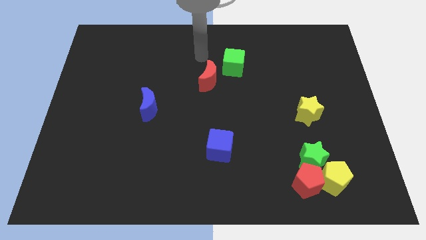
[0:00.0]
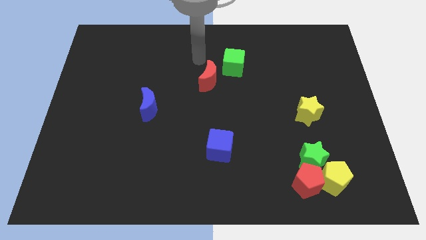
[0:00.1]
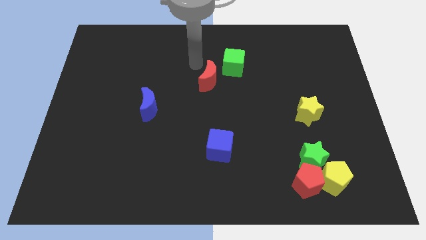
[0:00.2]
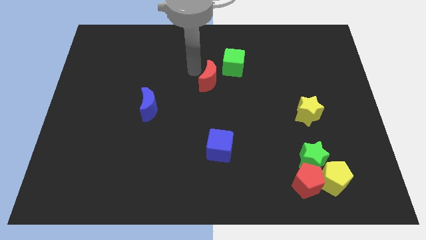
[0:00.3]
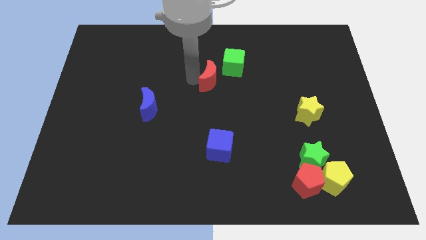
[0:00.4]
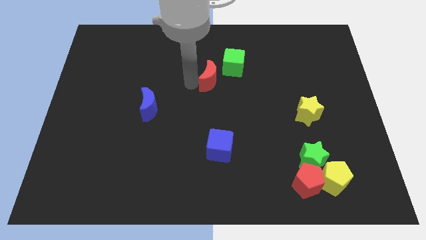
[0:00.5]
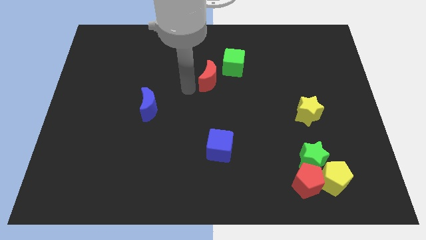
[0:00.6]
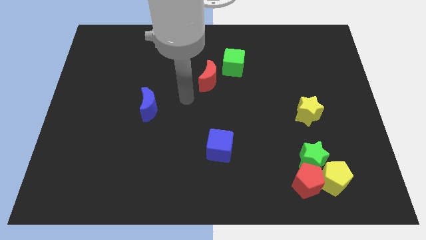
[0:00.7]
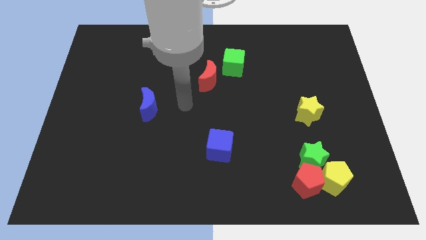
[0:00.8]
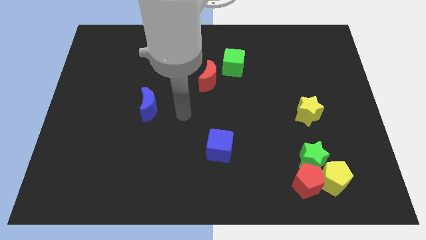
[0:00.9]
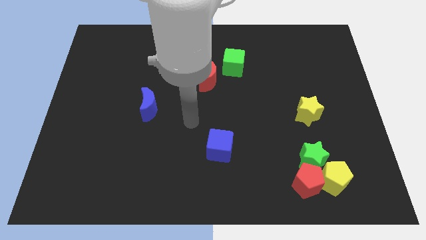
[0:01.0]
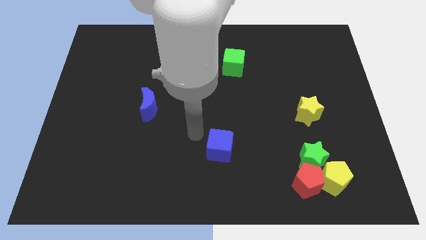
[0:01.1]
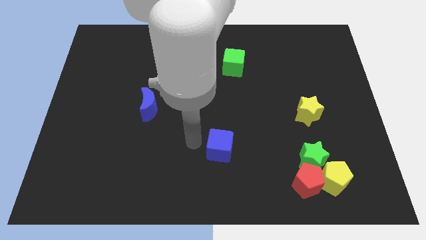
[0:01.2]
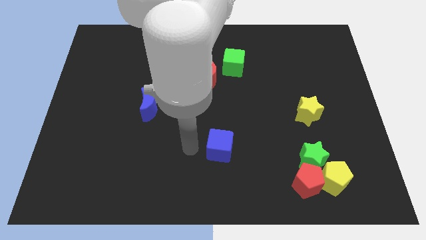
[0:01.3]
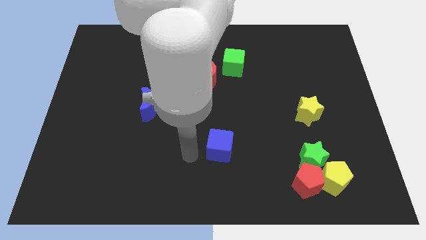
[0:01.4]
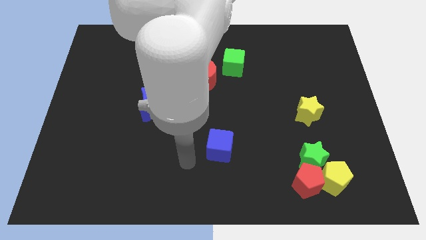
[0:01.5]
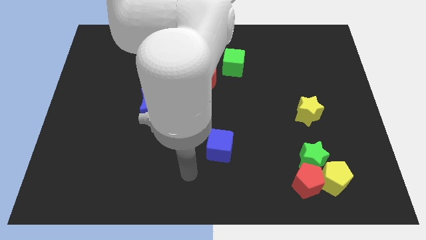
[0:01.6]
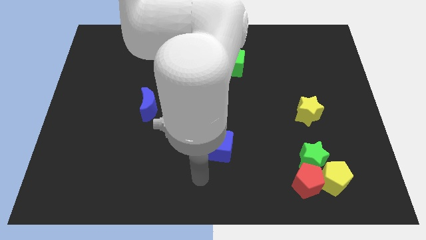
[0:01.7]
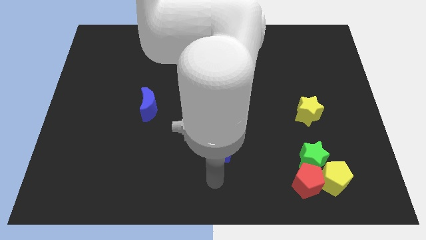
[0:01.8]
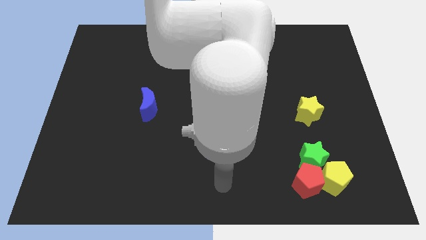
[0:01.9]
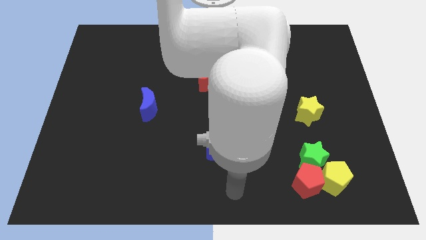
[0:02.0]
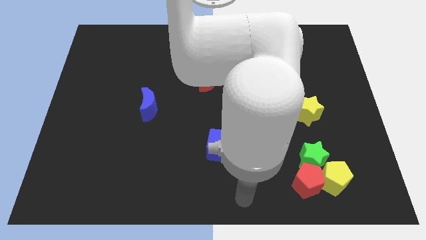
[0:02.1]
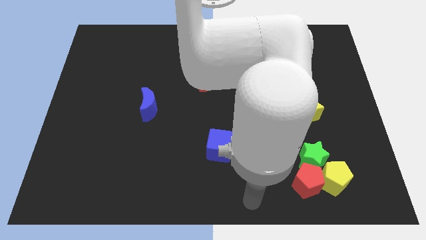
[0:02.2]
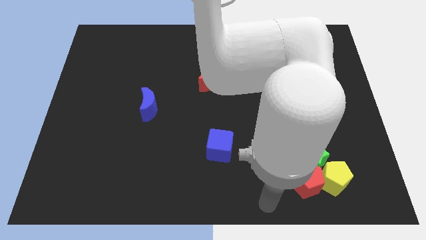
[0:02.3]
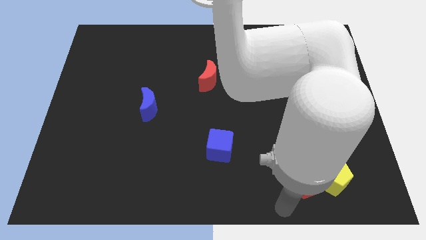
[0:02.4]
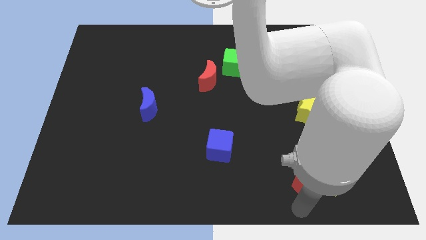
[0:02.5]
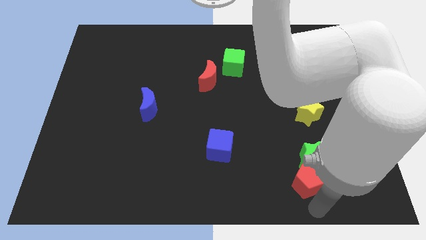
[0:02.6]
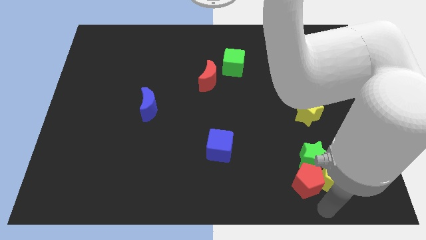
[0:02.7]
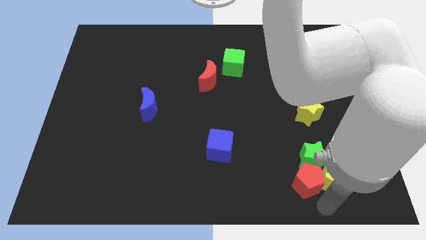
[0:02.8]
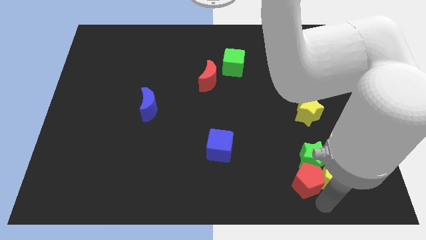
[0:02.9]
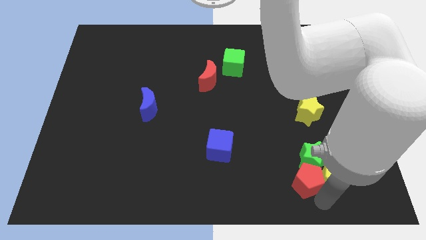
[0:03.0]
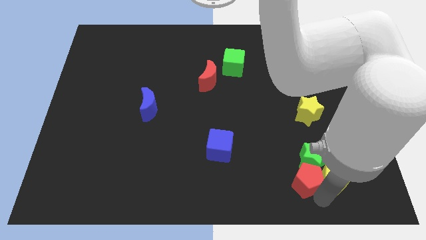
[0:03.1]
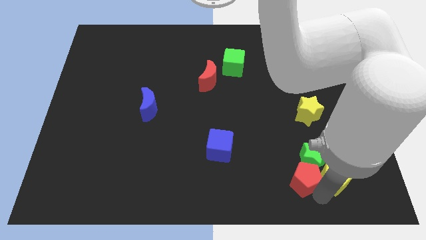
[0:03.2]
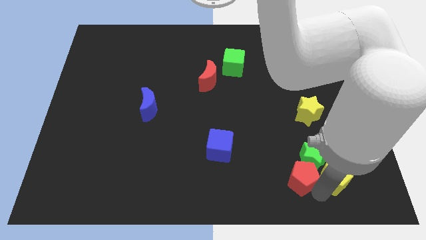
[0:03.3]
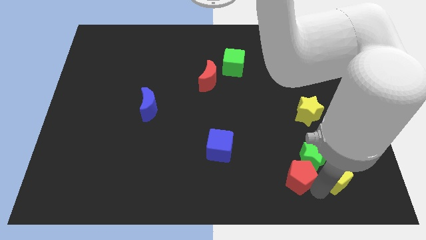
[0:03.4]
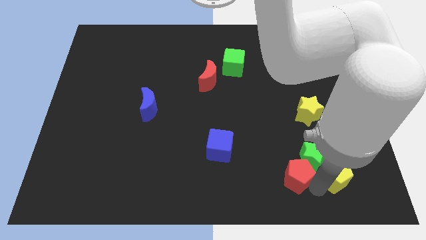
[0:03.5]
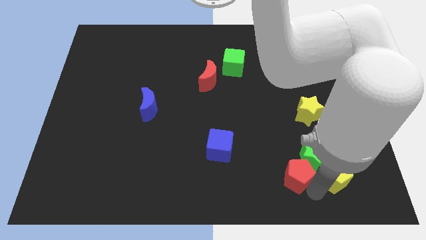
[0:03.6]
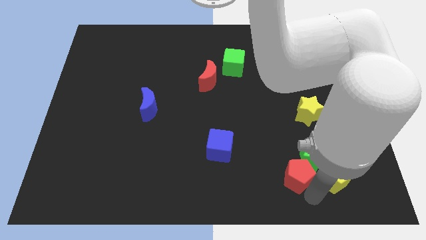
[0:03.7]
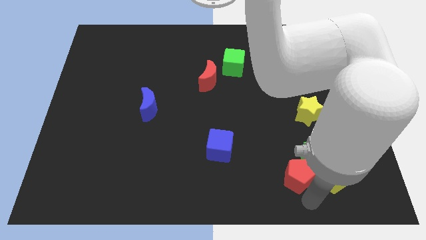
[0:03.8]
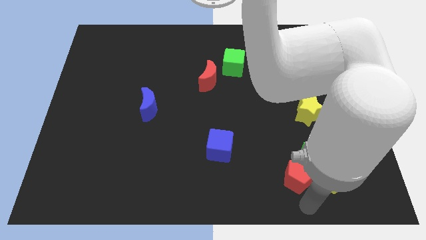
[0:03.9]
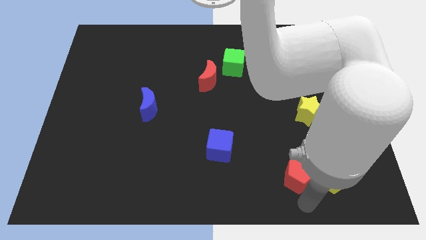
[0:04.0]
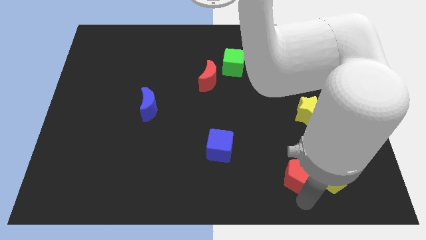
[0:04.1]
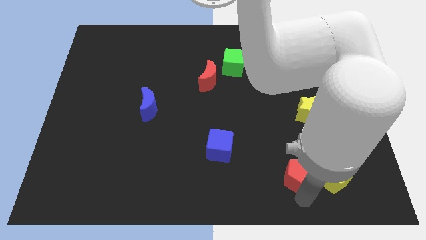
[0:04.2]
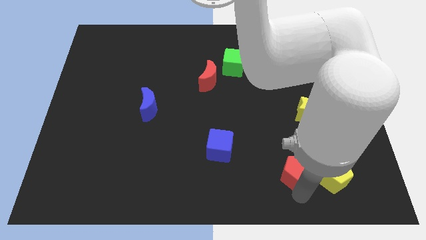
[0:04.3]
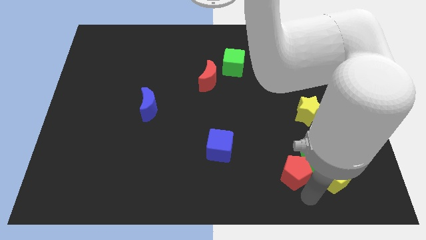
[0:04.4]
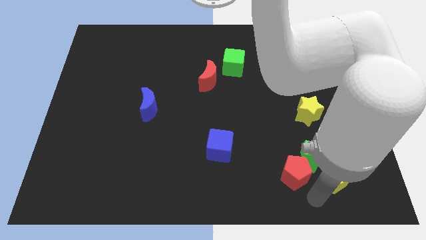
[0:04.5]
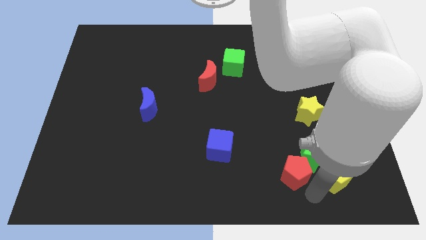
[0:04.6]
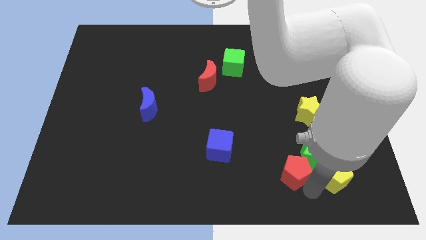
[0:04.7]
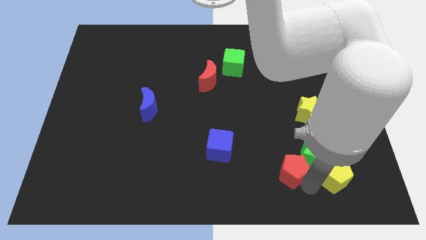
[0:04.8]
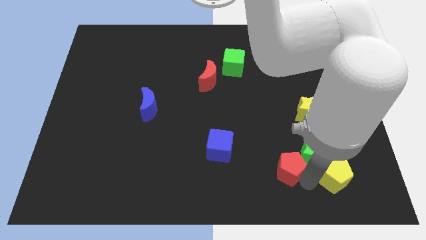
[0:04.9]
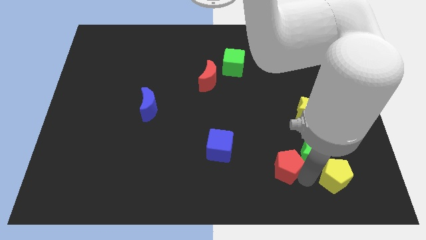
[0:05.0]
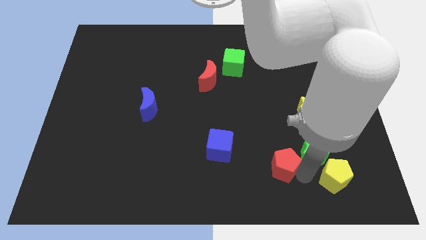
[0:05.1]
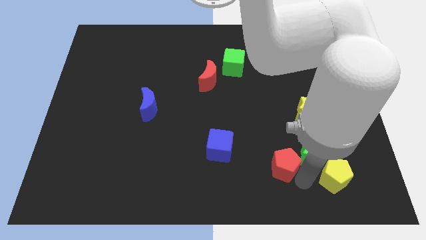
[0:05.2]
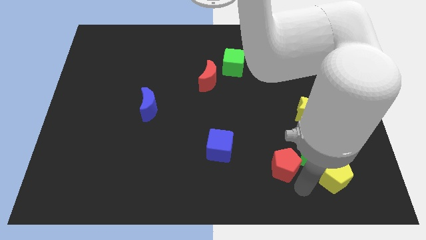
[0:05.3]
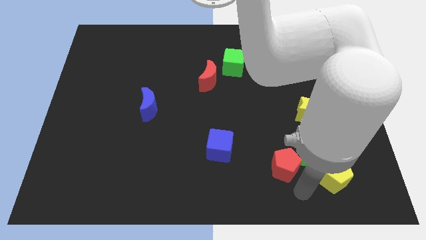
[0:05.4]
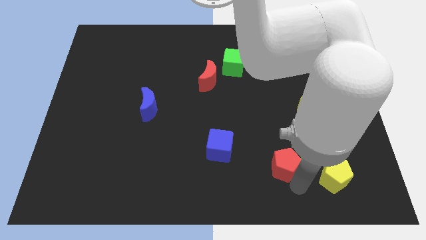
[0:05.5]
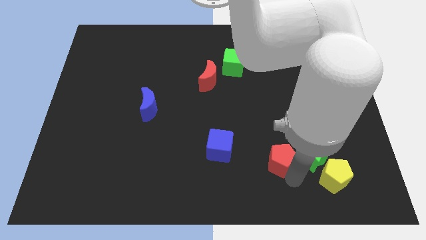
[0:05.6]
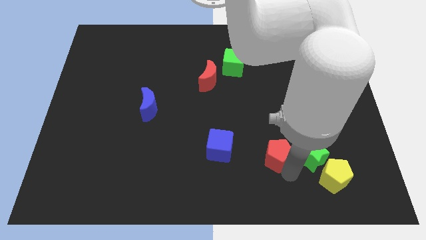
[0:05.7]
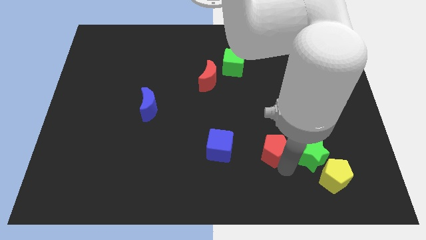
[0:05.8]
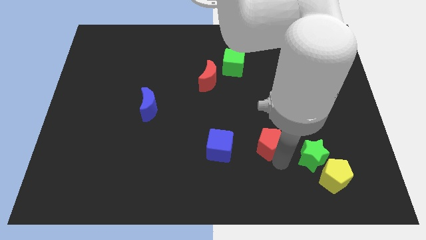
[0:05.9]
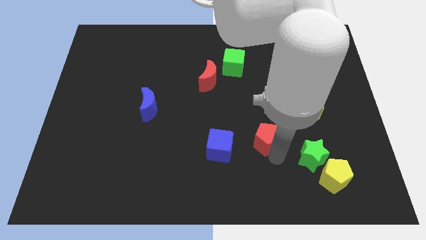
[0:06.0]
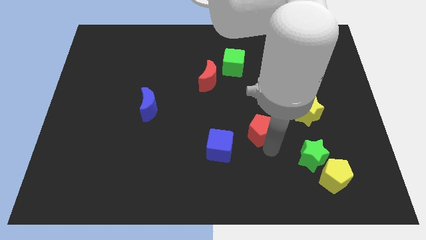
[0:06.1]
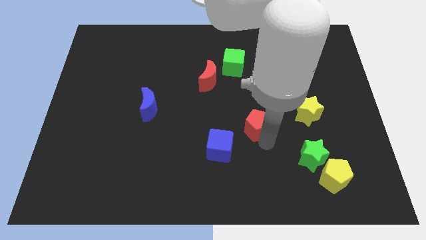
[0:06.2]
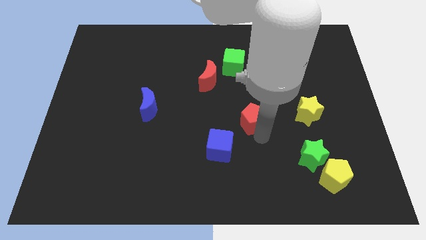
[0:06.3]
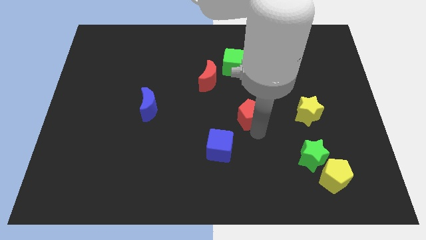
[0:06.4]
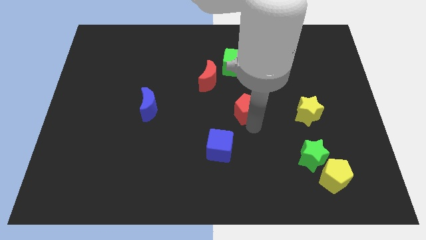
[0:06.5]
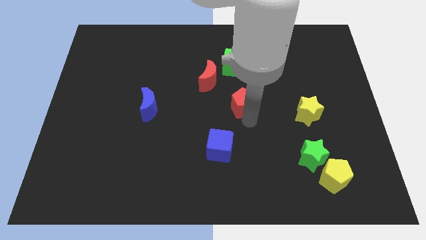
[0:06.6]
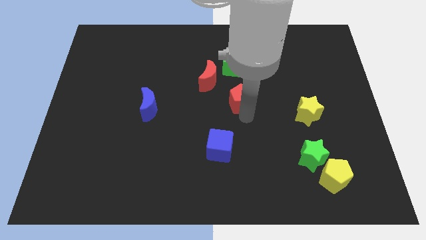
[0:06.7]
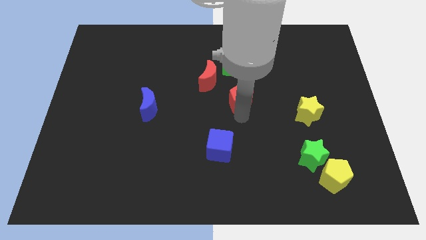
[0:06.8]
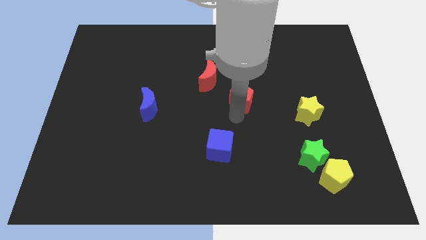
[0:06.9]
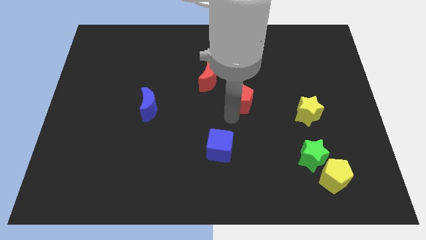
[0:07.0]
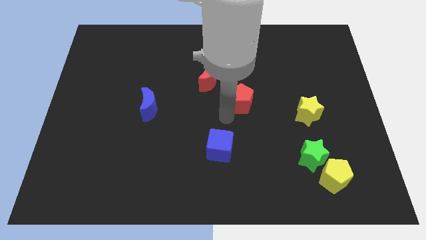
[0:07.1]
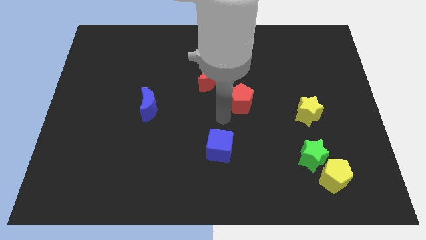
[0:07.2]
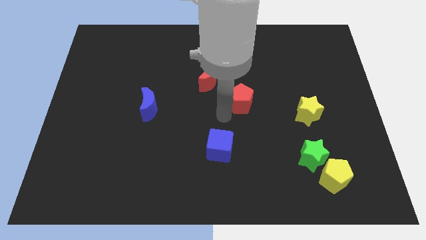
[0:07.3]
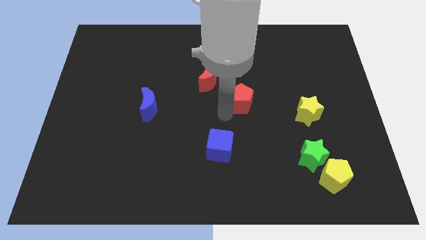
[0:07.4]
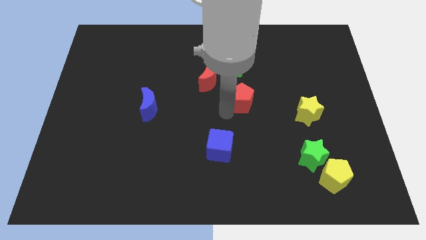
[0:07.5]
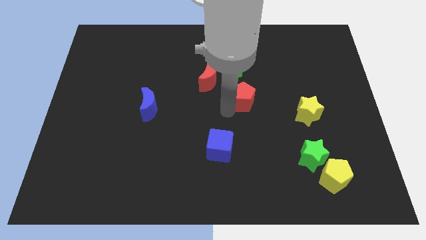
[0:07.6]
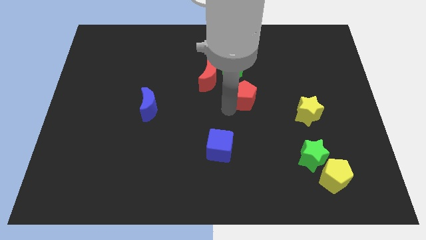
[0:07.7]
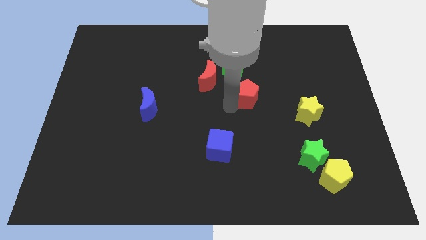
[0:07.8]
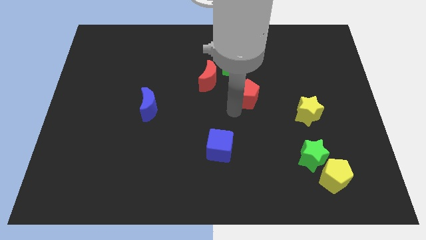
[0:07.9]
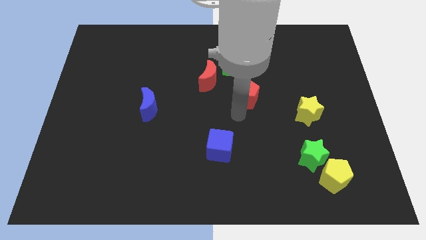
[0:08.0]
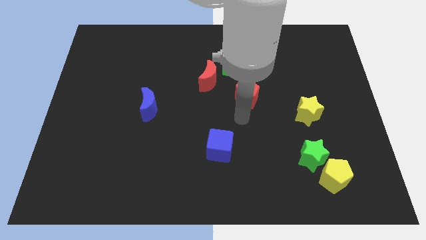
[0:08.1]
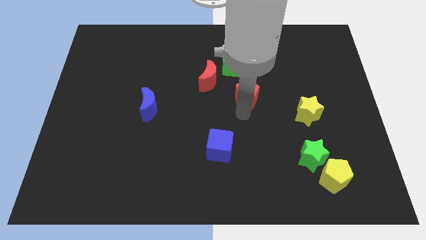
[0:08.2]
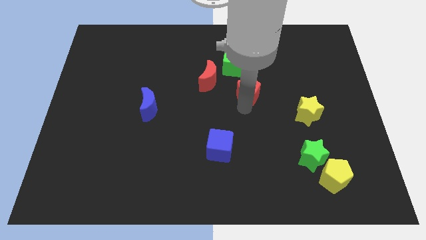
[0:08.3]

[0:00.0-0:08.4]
put the red pentagon just right of the red moon
